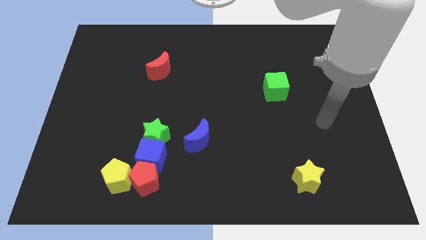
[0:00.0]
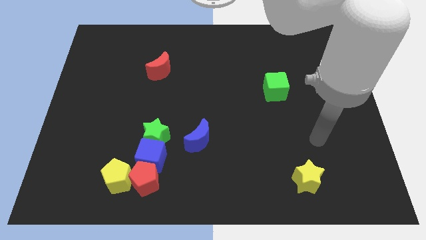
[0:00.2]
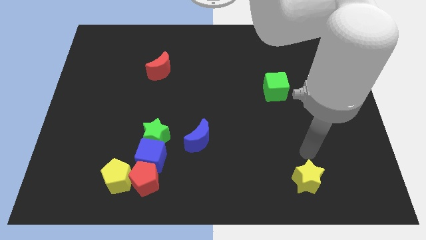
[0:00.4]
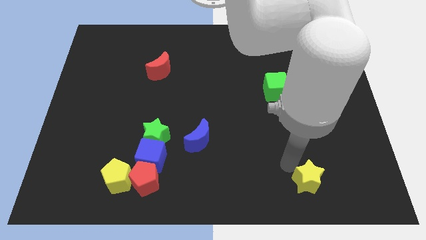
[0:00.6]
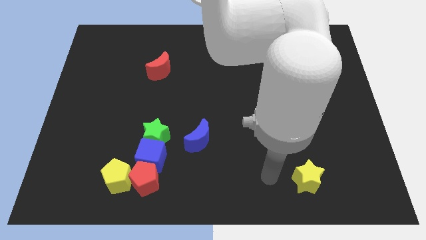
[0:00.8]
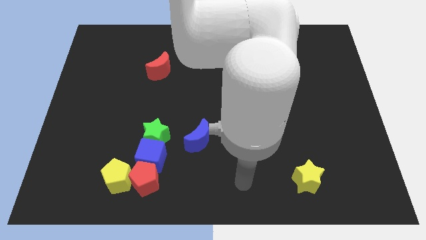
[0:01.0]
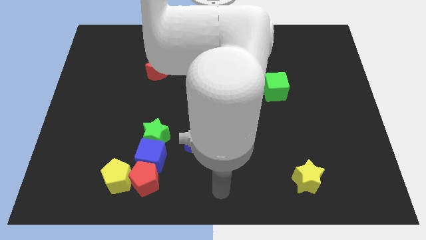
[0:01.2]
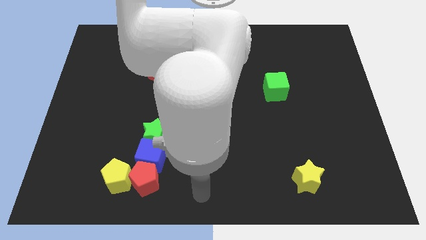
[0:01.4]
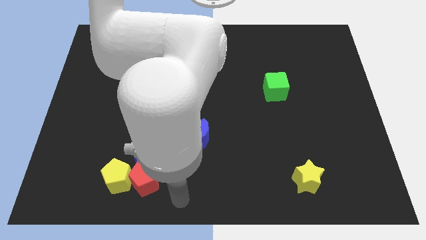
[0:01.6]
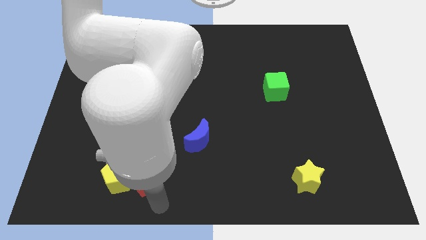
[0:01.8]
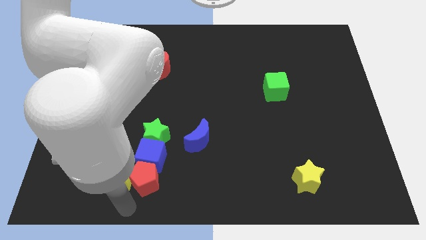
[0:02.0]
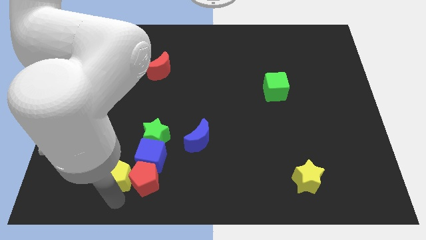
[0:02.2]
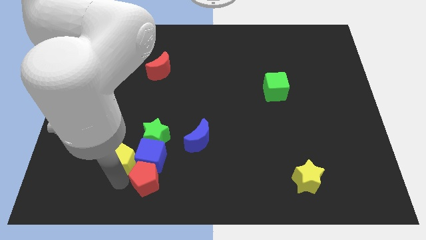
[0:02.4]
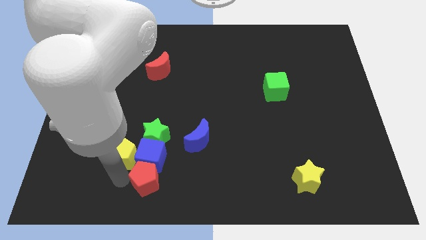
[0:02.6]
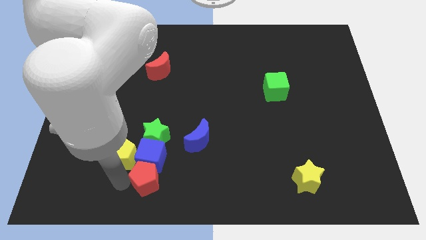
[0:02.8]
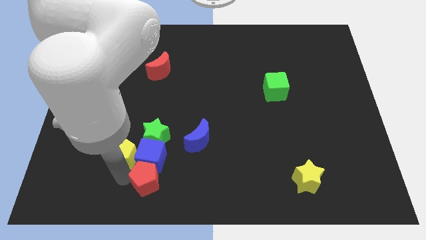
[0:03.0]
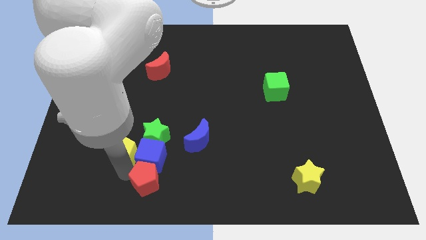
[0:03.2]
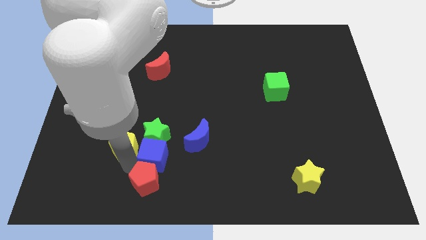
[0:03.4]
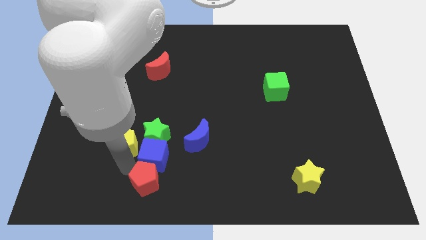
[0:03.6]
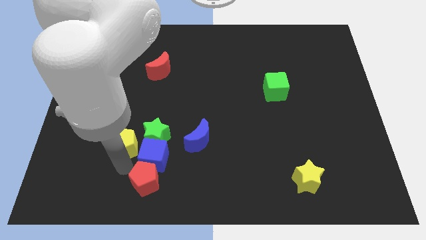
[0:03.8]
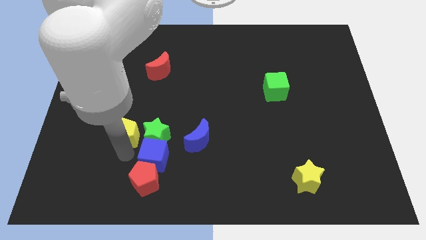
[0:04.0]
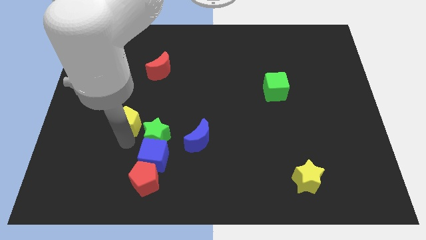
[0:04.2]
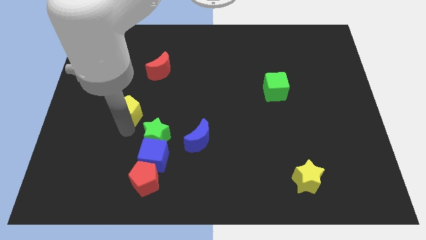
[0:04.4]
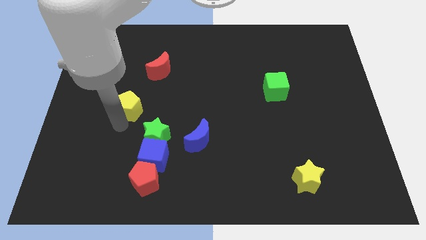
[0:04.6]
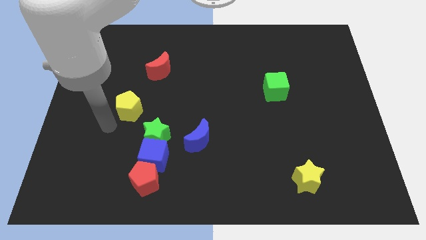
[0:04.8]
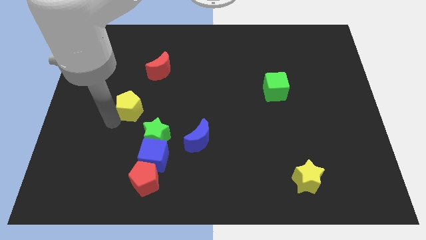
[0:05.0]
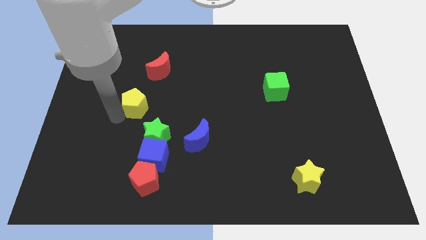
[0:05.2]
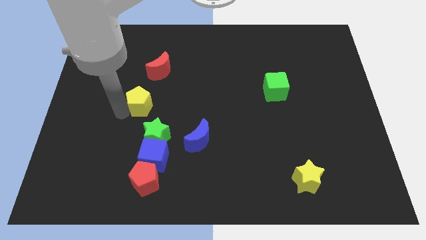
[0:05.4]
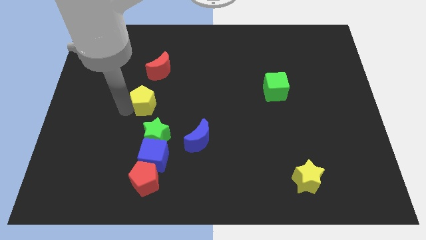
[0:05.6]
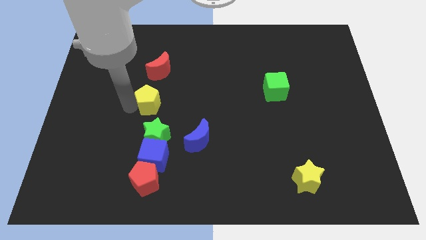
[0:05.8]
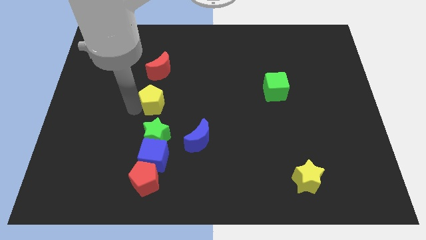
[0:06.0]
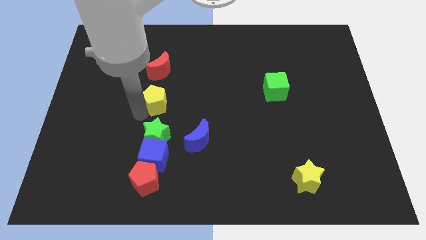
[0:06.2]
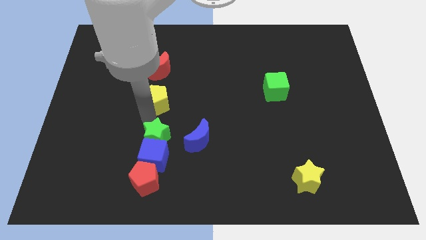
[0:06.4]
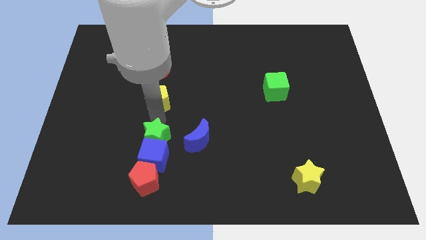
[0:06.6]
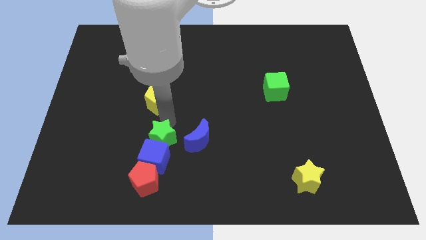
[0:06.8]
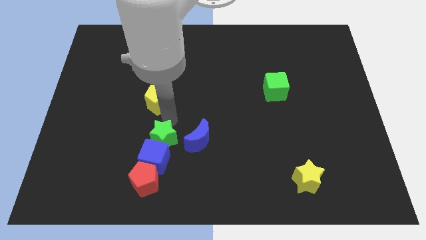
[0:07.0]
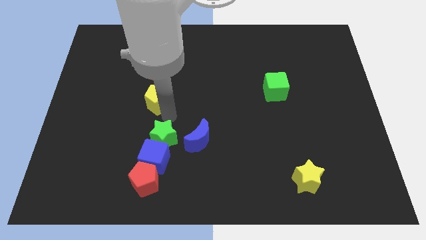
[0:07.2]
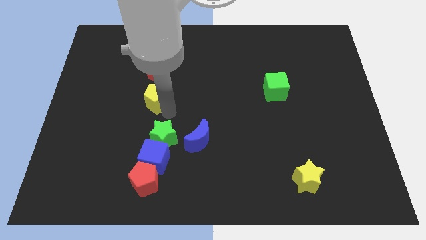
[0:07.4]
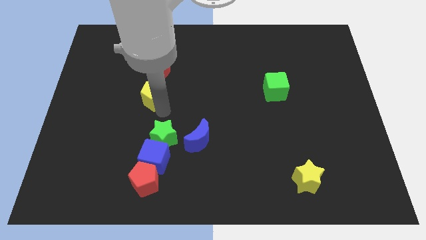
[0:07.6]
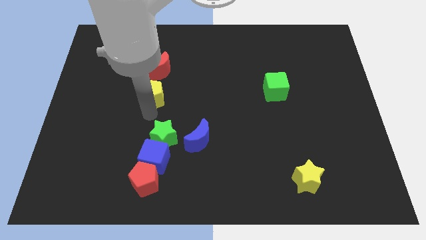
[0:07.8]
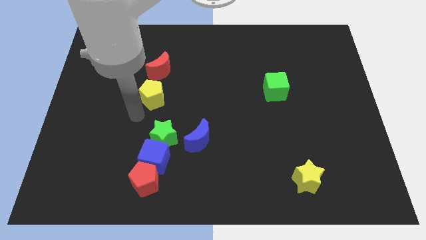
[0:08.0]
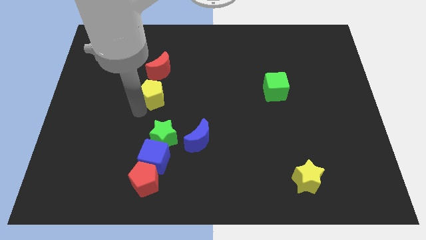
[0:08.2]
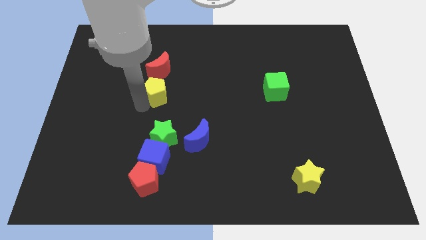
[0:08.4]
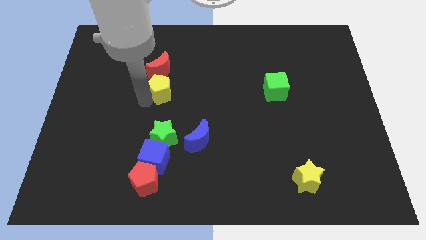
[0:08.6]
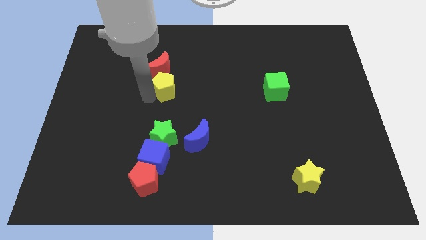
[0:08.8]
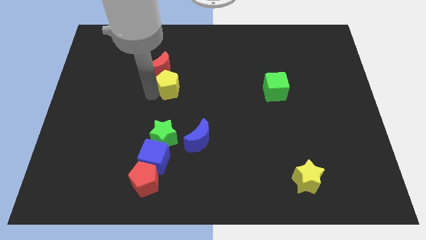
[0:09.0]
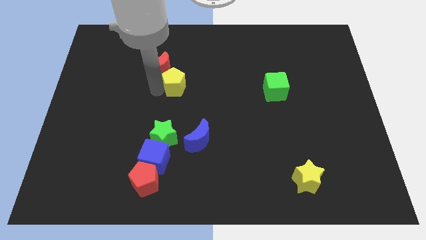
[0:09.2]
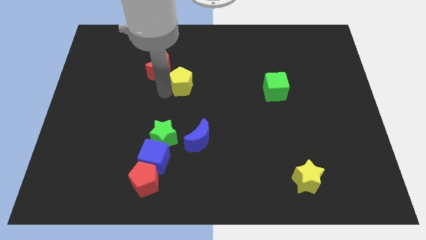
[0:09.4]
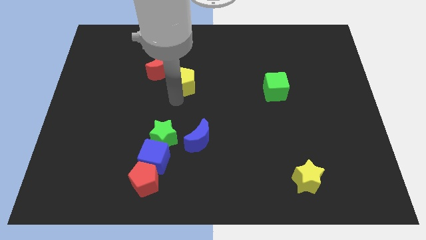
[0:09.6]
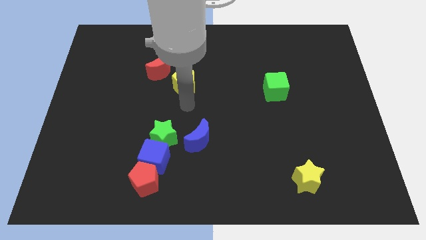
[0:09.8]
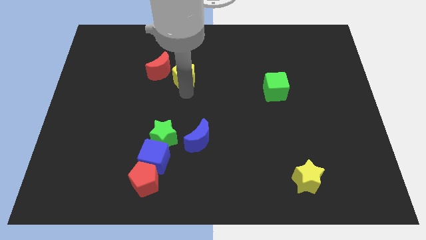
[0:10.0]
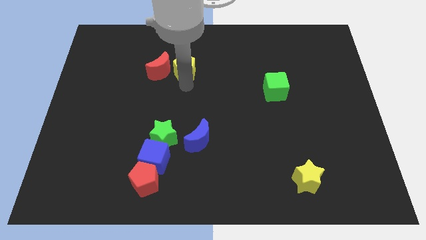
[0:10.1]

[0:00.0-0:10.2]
put the yellow pentagon to the top right side of the red moon

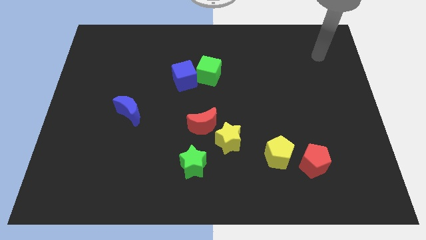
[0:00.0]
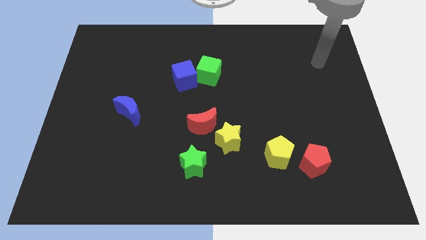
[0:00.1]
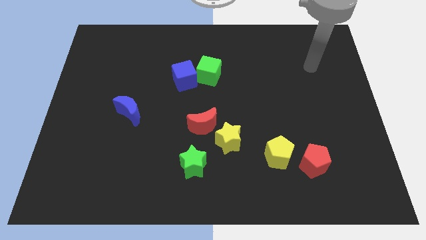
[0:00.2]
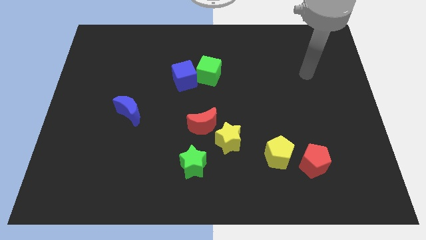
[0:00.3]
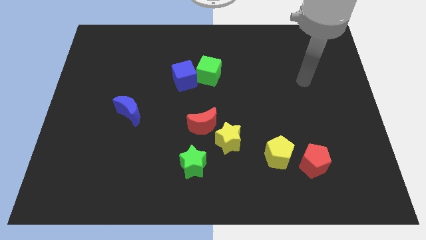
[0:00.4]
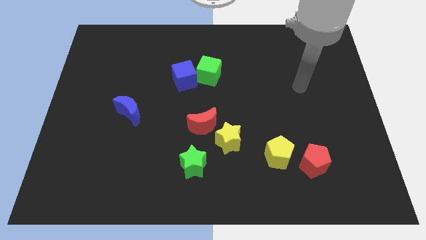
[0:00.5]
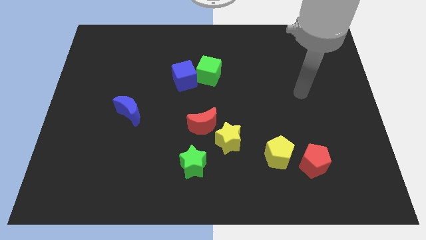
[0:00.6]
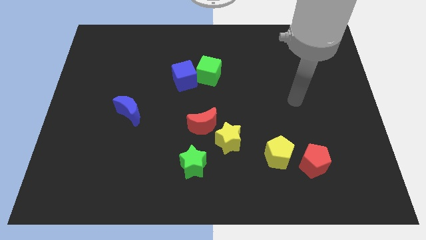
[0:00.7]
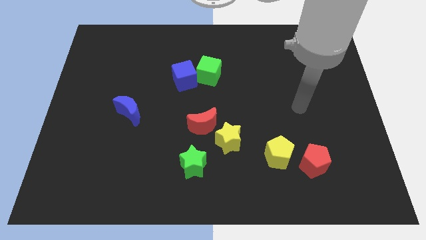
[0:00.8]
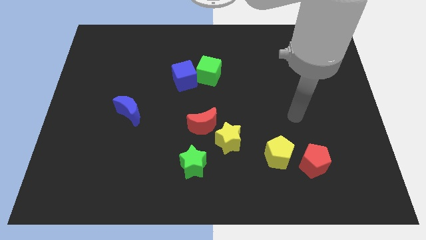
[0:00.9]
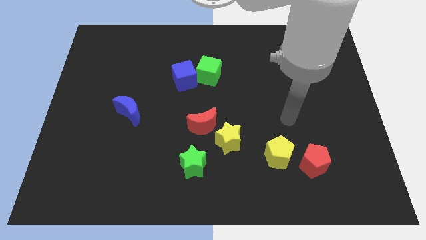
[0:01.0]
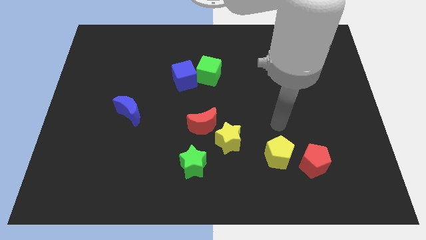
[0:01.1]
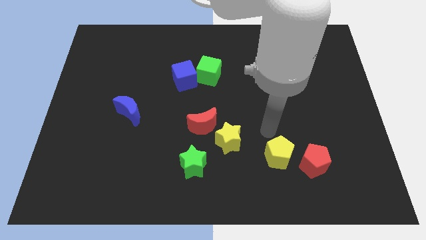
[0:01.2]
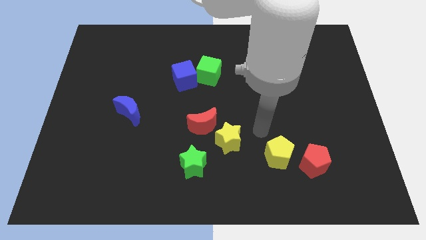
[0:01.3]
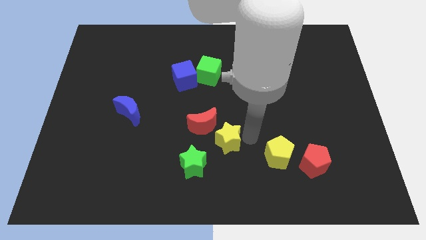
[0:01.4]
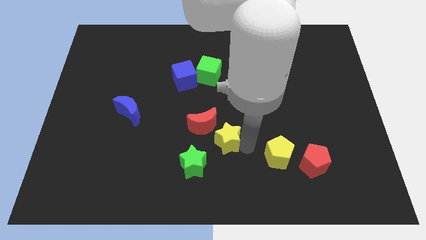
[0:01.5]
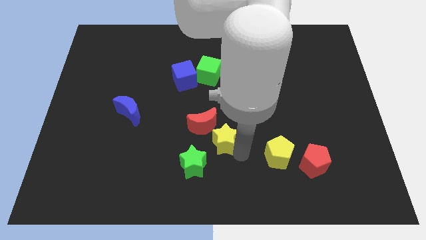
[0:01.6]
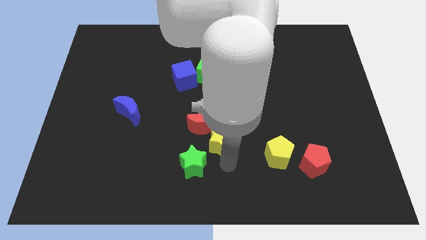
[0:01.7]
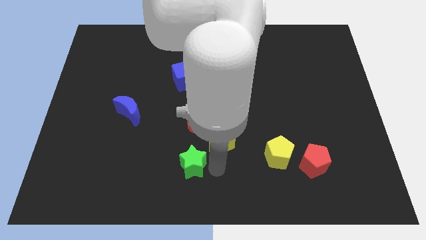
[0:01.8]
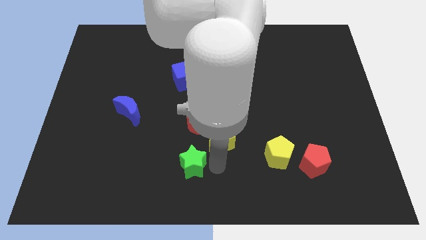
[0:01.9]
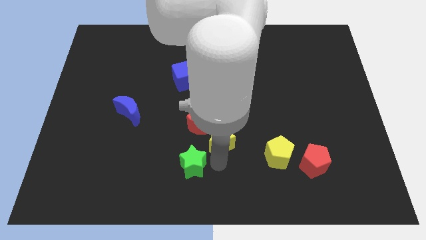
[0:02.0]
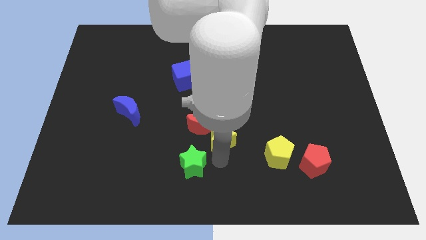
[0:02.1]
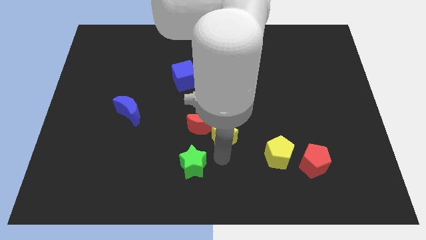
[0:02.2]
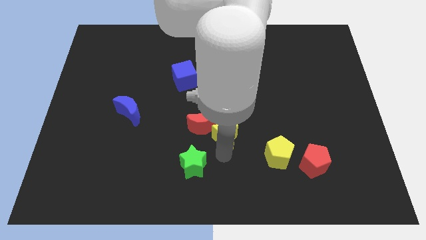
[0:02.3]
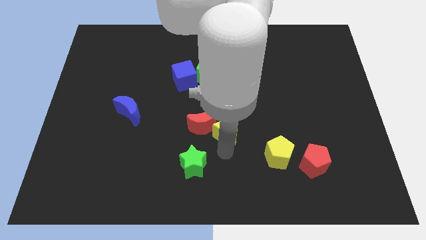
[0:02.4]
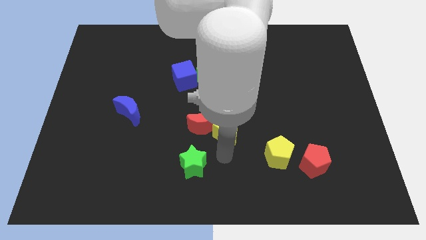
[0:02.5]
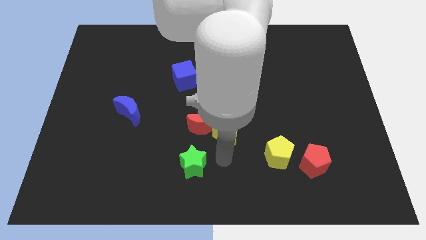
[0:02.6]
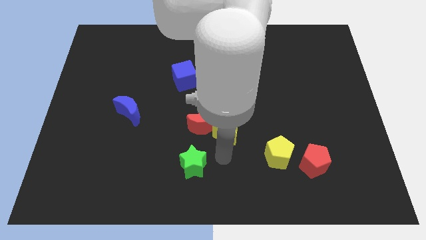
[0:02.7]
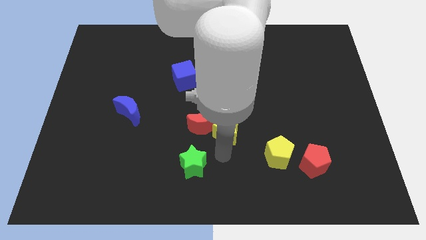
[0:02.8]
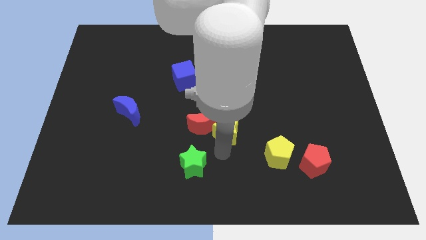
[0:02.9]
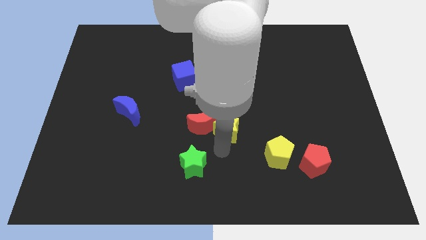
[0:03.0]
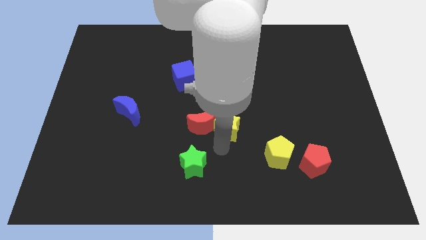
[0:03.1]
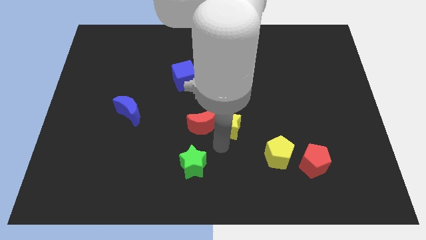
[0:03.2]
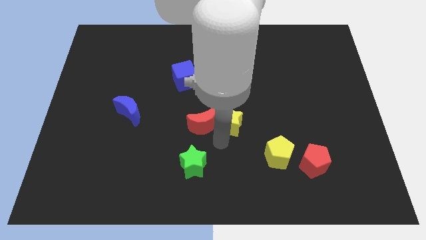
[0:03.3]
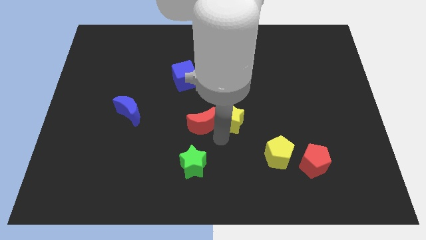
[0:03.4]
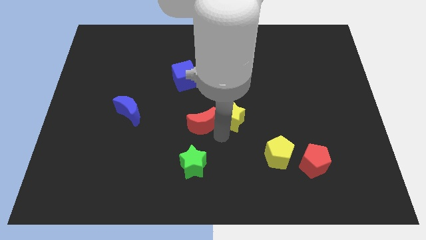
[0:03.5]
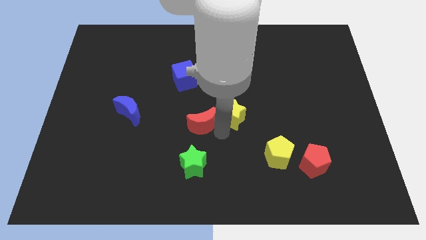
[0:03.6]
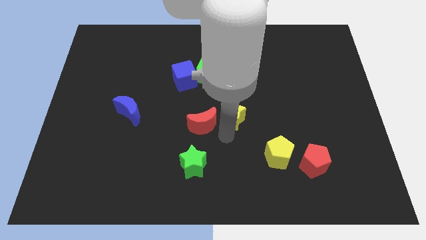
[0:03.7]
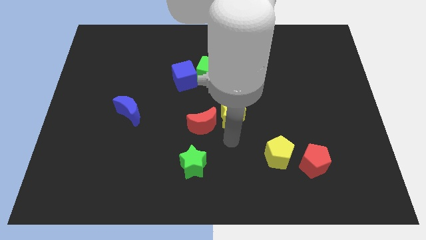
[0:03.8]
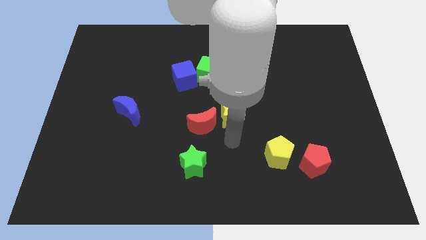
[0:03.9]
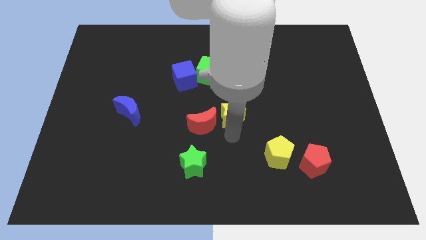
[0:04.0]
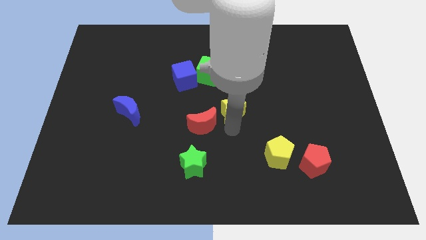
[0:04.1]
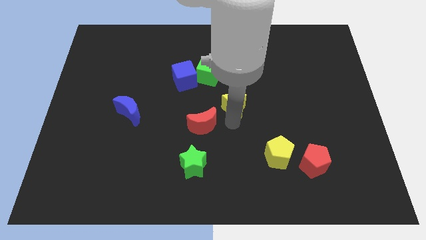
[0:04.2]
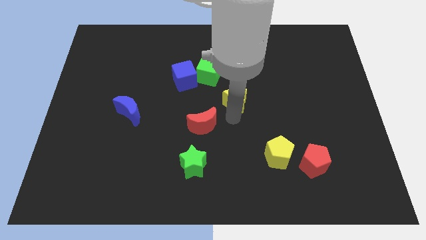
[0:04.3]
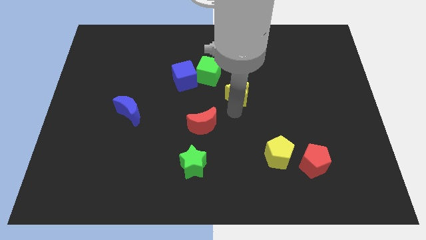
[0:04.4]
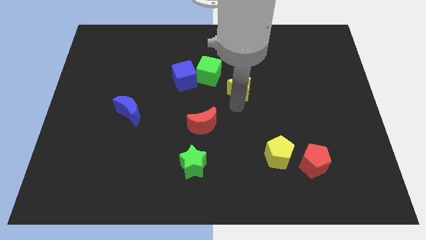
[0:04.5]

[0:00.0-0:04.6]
move the yellow star just right of the blue cube
